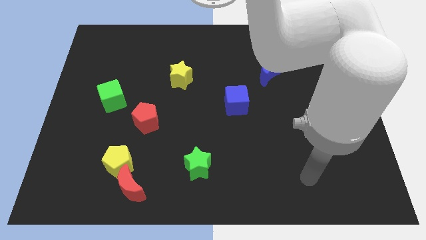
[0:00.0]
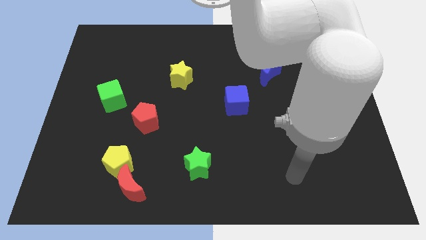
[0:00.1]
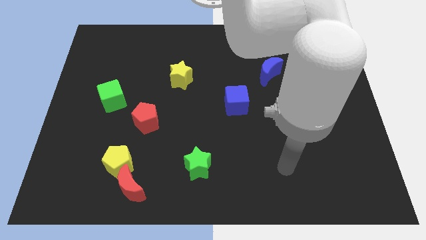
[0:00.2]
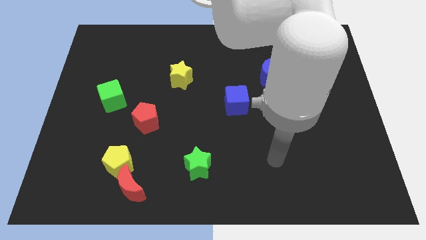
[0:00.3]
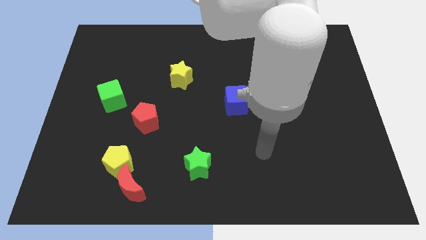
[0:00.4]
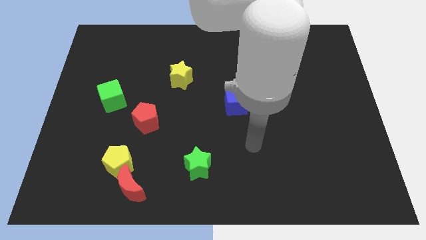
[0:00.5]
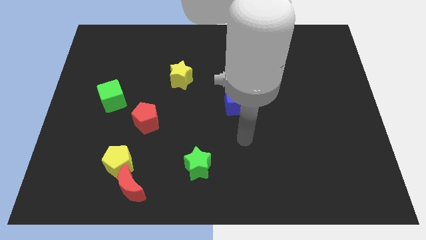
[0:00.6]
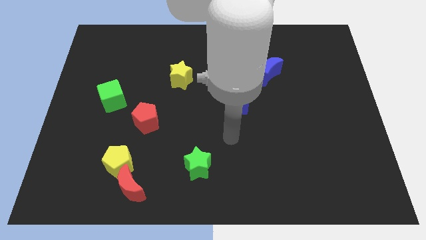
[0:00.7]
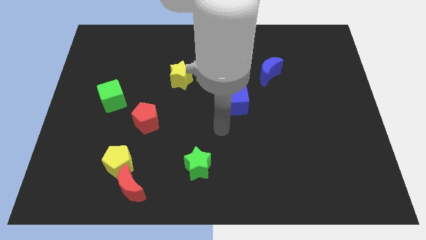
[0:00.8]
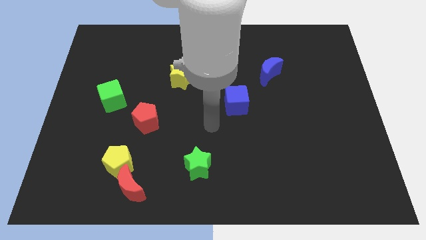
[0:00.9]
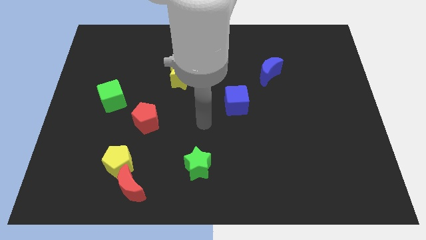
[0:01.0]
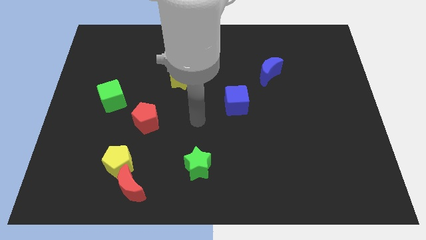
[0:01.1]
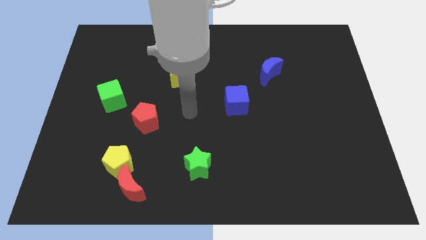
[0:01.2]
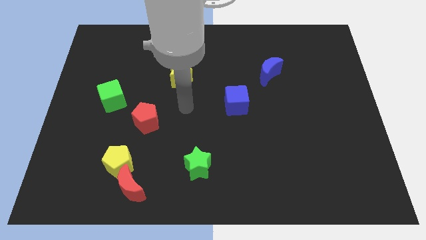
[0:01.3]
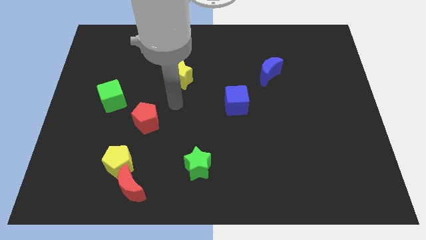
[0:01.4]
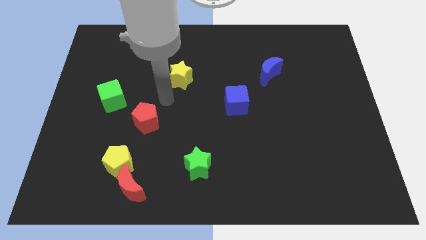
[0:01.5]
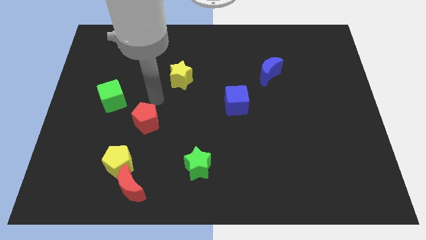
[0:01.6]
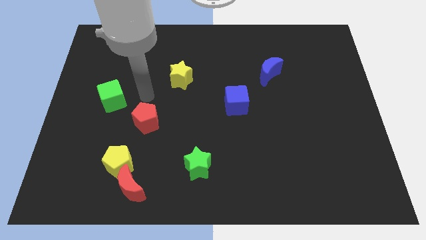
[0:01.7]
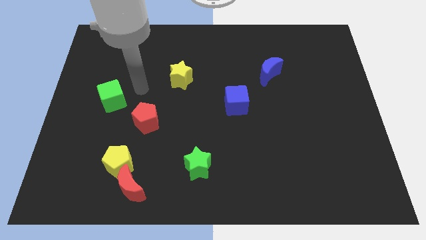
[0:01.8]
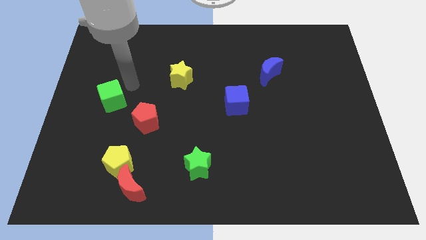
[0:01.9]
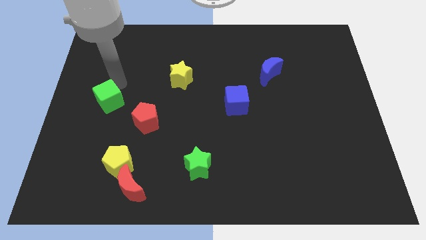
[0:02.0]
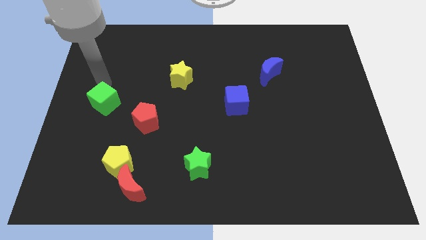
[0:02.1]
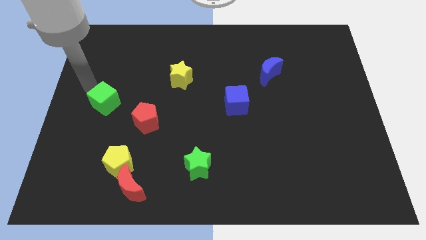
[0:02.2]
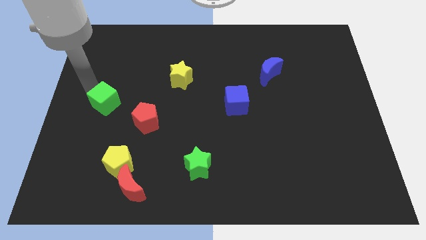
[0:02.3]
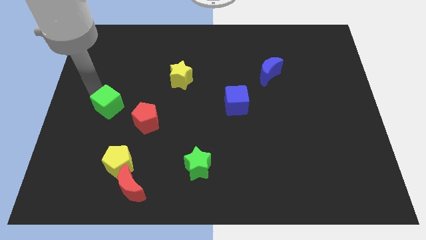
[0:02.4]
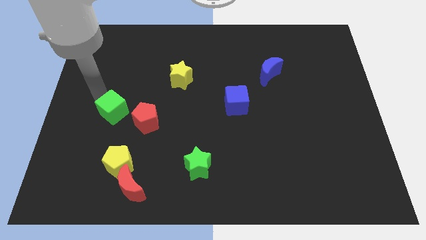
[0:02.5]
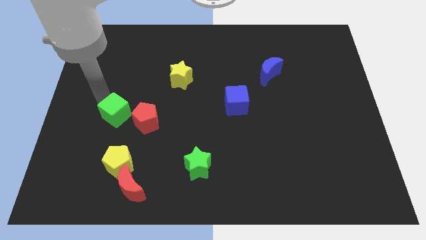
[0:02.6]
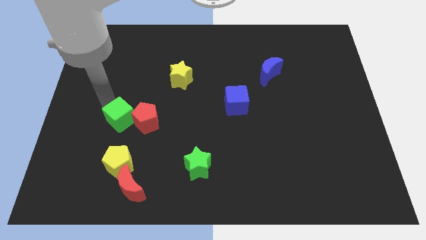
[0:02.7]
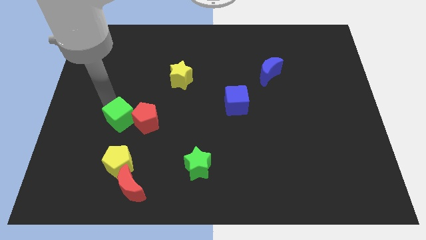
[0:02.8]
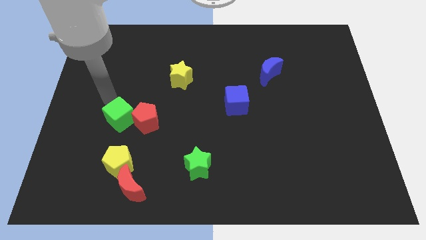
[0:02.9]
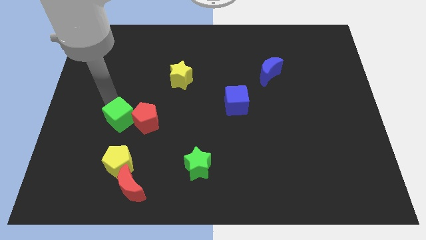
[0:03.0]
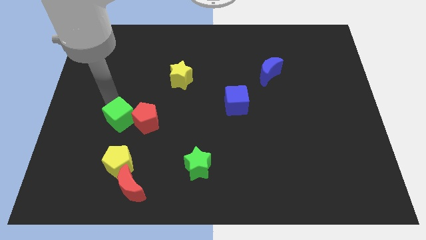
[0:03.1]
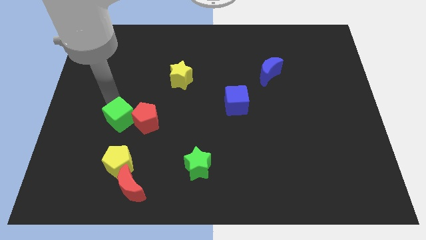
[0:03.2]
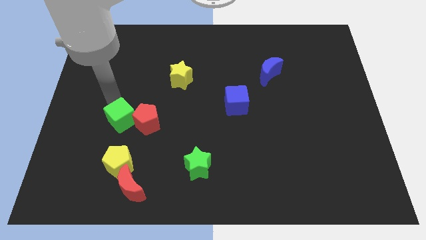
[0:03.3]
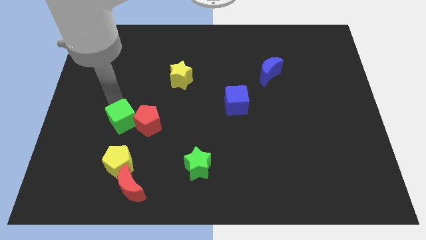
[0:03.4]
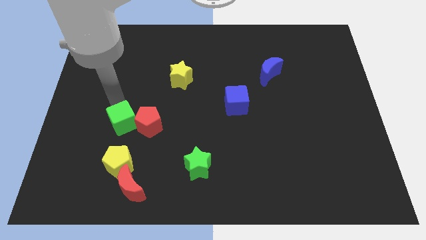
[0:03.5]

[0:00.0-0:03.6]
slightly move the green cube down and then right

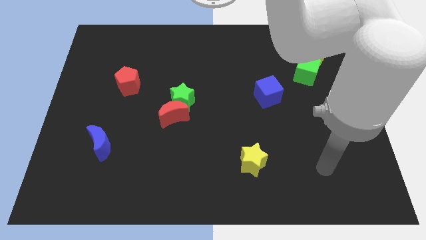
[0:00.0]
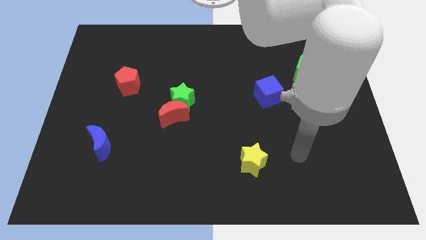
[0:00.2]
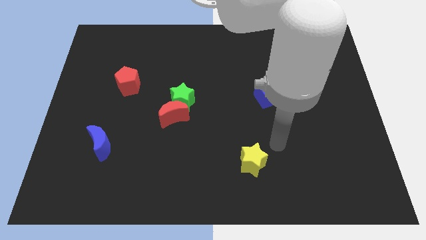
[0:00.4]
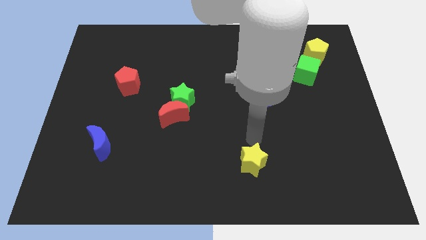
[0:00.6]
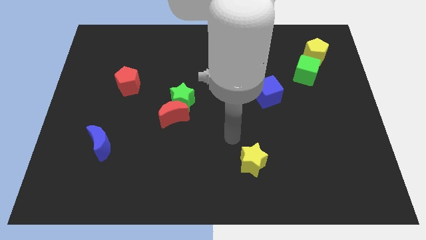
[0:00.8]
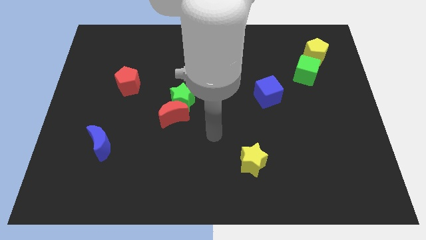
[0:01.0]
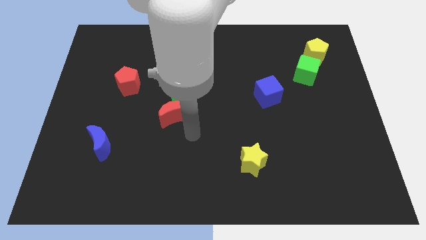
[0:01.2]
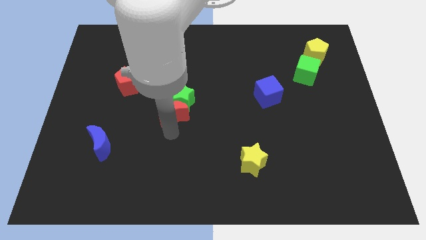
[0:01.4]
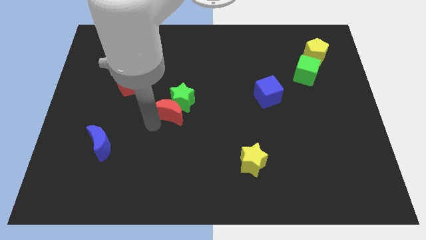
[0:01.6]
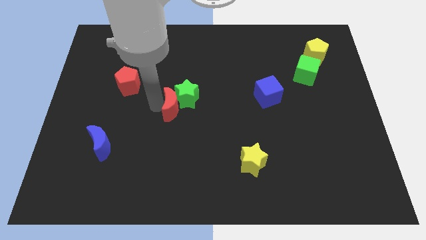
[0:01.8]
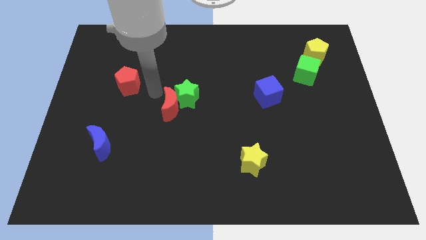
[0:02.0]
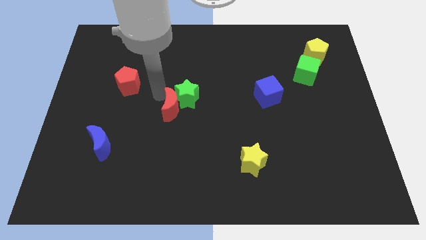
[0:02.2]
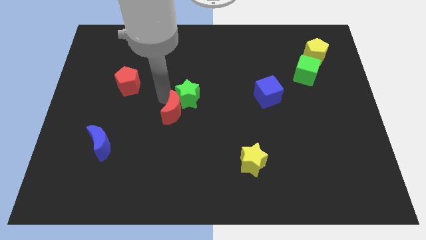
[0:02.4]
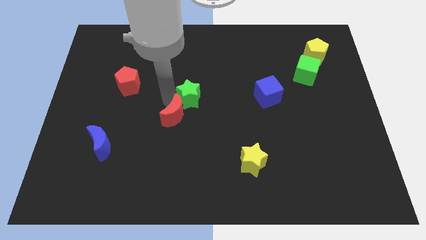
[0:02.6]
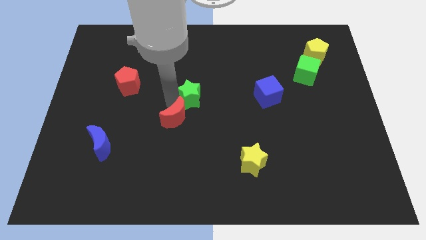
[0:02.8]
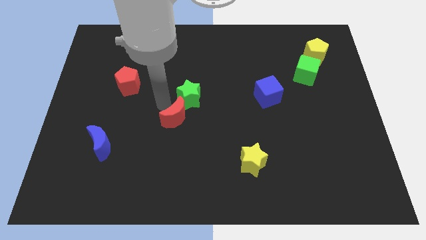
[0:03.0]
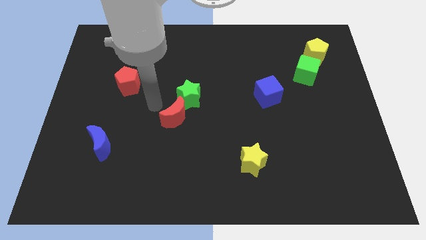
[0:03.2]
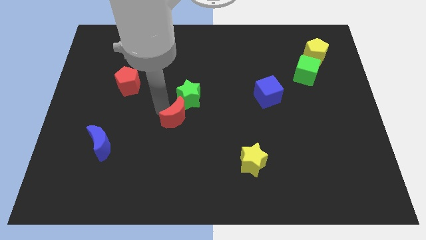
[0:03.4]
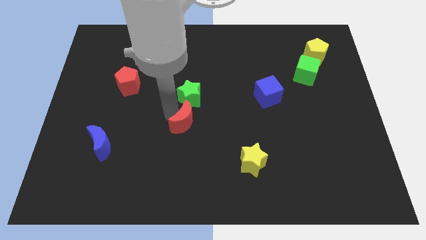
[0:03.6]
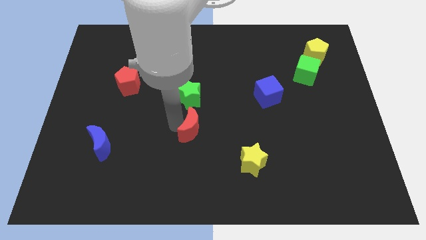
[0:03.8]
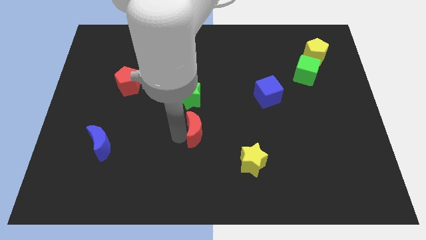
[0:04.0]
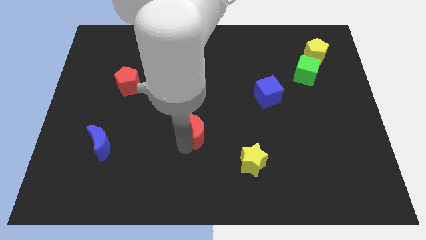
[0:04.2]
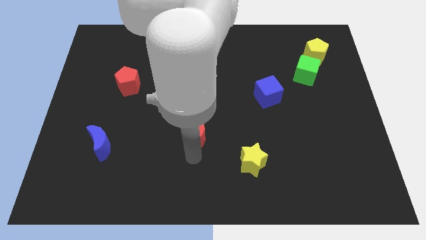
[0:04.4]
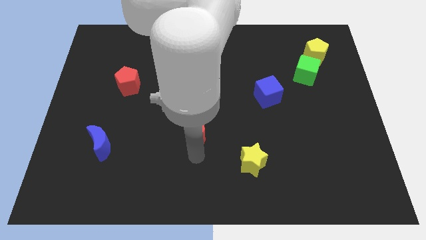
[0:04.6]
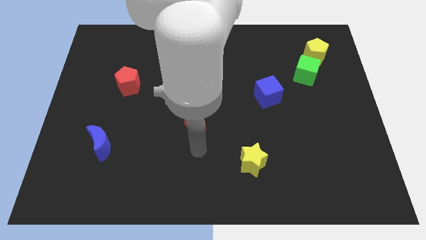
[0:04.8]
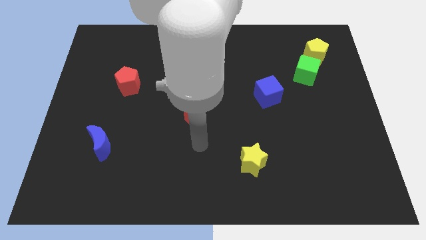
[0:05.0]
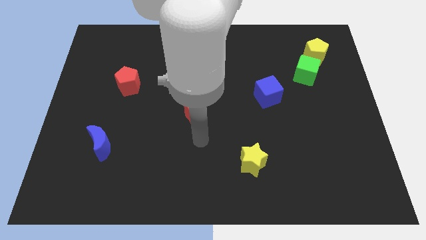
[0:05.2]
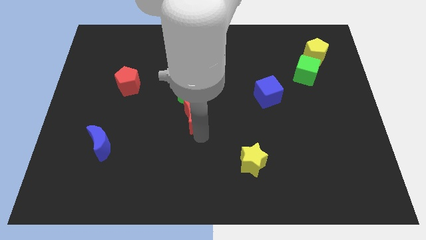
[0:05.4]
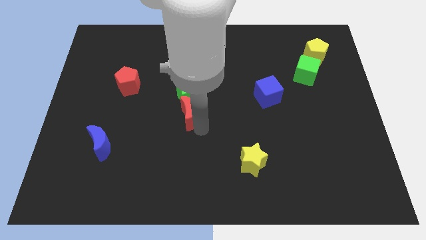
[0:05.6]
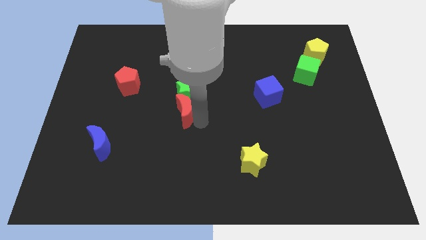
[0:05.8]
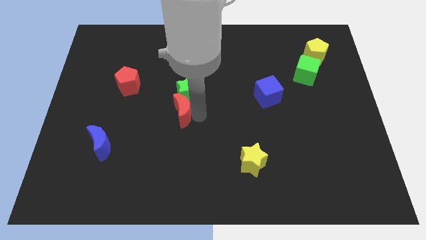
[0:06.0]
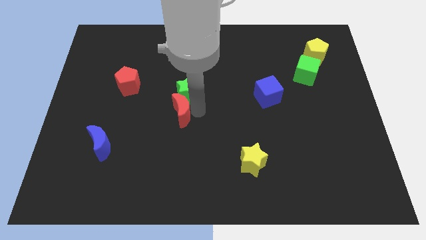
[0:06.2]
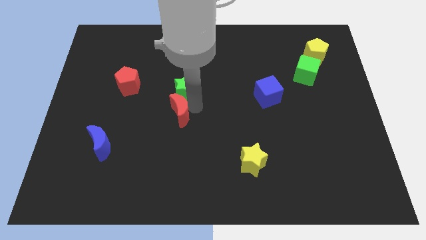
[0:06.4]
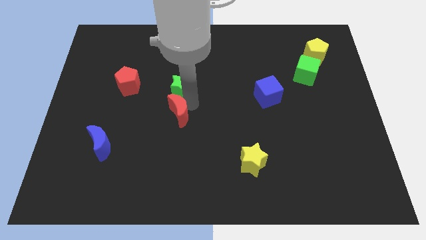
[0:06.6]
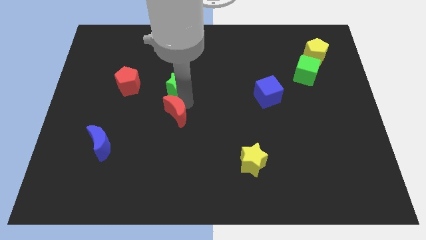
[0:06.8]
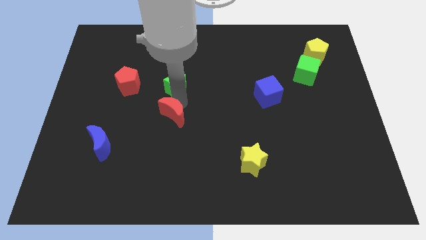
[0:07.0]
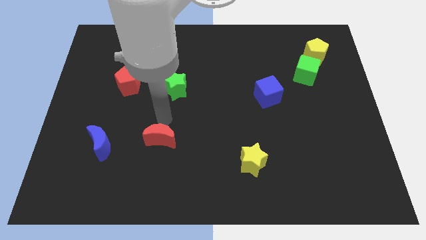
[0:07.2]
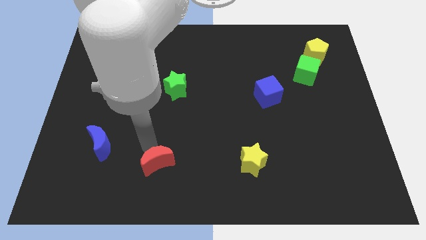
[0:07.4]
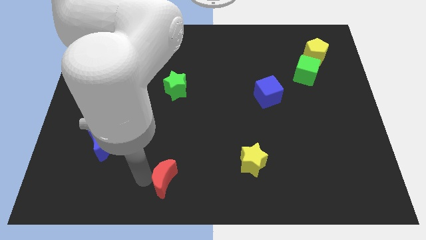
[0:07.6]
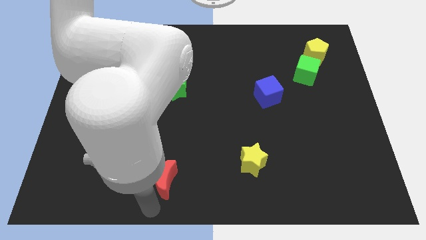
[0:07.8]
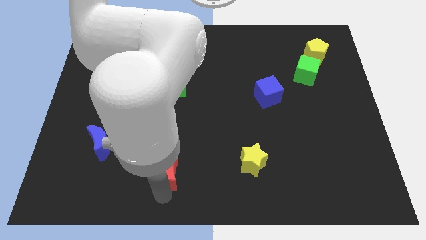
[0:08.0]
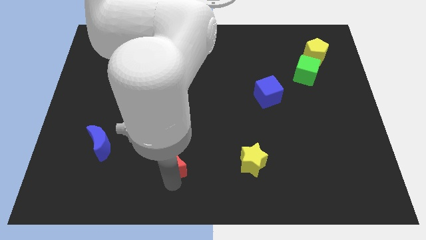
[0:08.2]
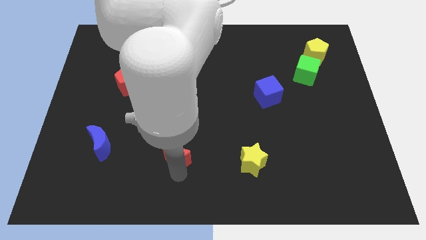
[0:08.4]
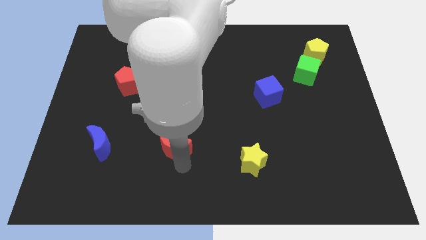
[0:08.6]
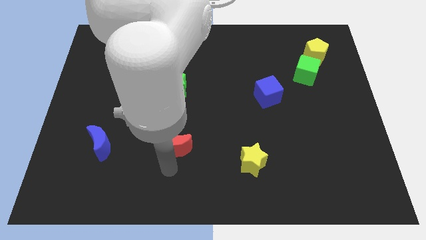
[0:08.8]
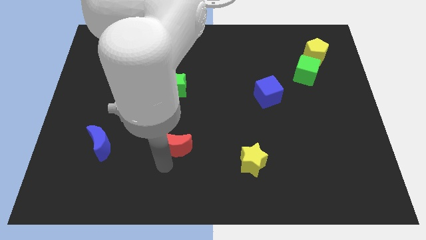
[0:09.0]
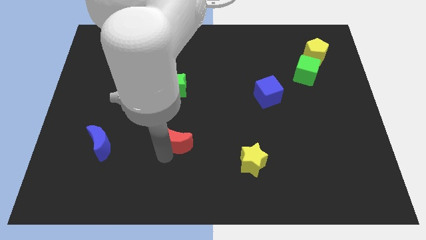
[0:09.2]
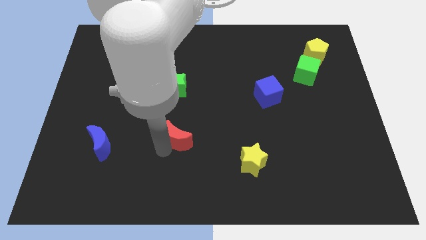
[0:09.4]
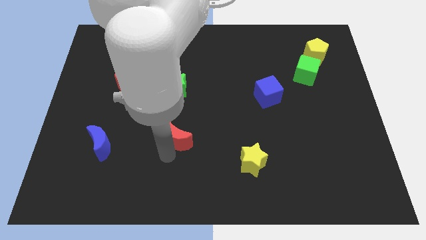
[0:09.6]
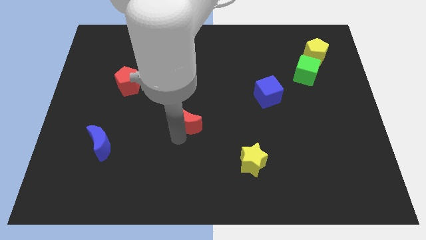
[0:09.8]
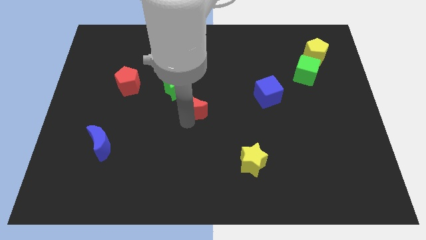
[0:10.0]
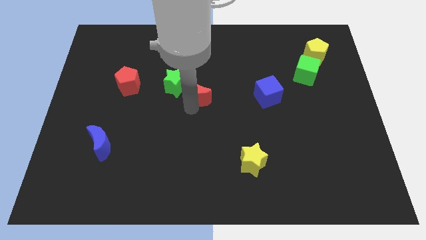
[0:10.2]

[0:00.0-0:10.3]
slightly move the red moon diagonally upwards and right
